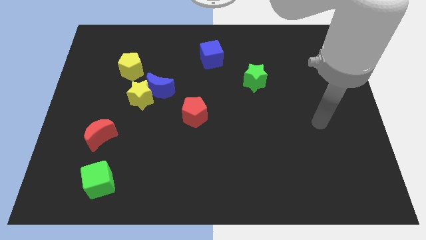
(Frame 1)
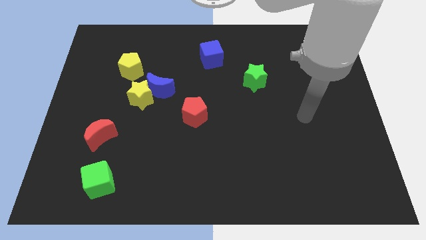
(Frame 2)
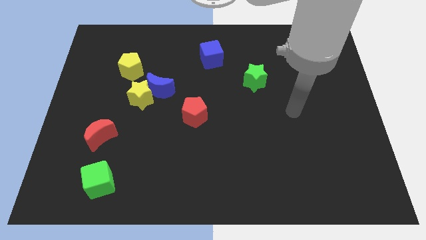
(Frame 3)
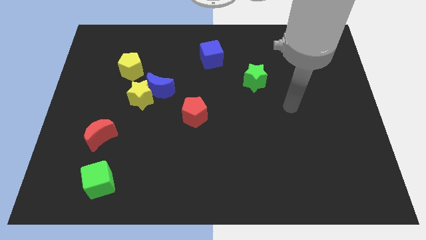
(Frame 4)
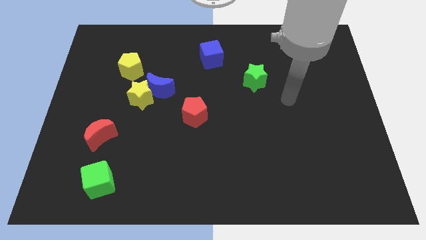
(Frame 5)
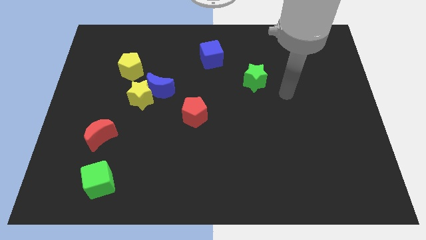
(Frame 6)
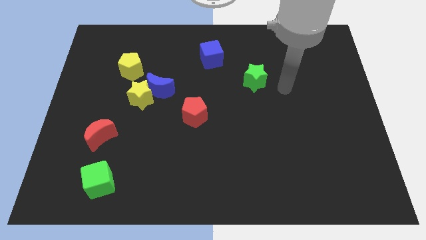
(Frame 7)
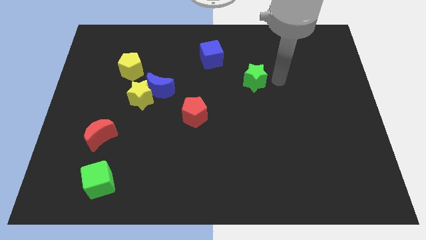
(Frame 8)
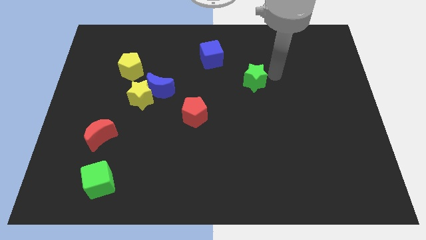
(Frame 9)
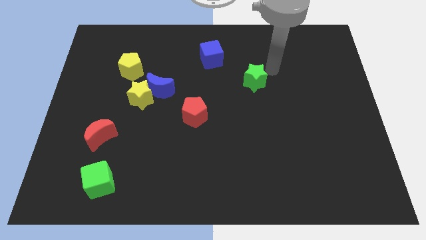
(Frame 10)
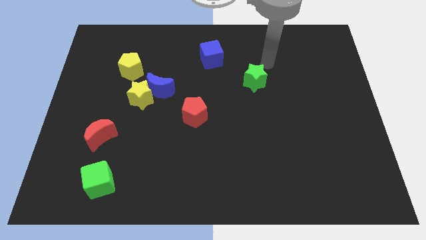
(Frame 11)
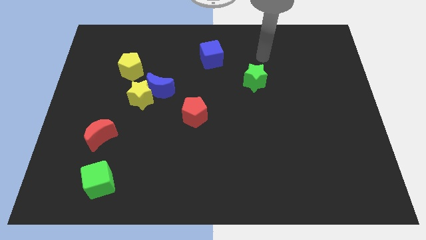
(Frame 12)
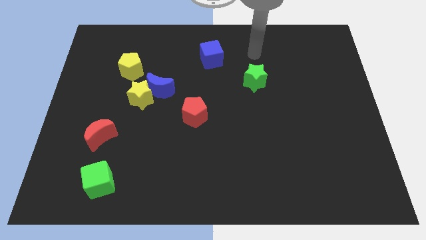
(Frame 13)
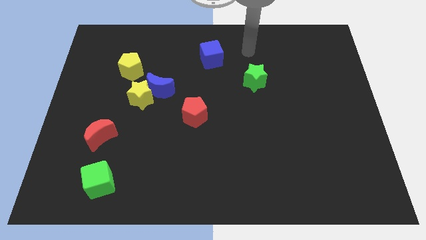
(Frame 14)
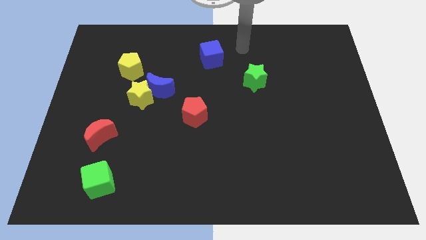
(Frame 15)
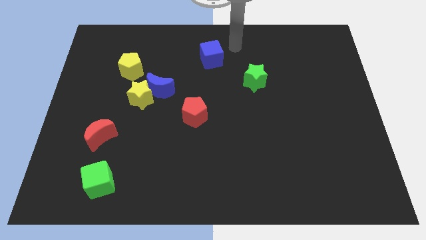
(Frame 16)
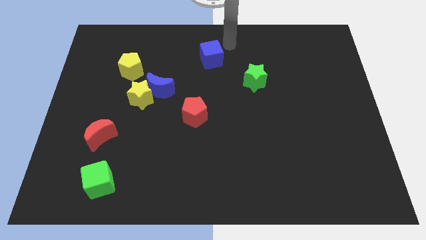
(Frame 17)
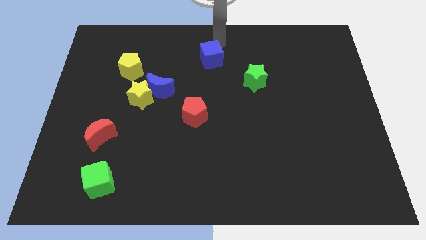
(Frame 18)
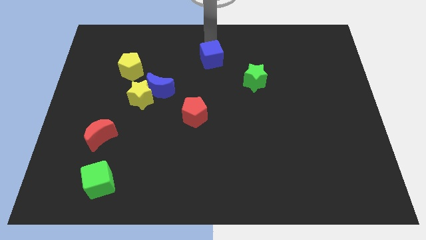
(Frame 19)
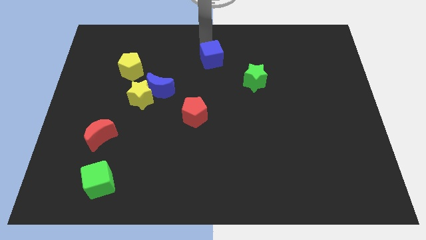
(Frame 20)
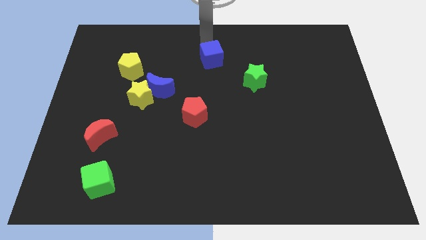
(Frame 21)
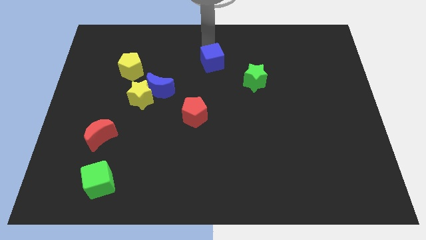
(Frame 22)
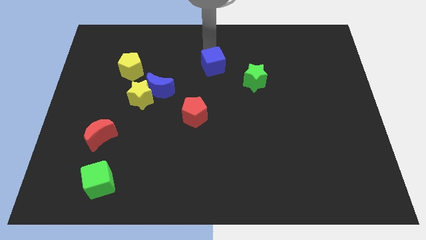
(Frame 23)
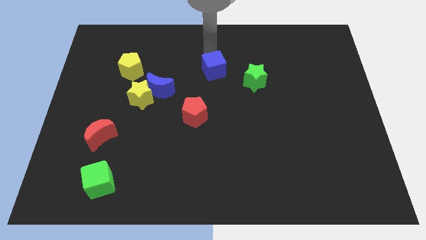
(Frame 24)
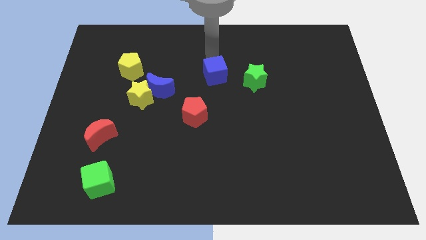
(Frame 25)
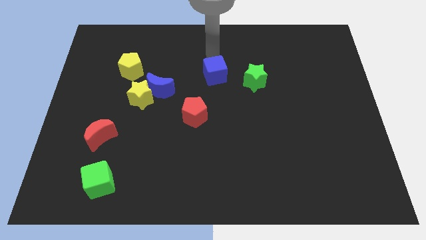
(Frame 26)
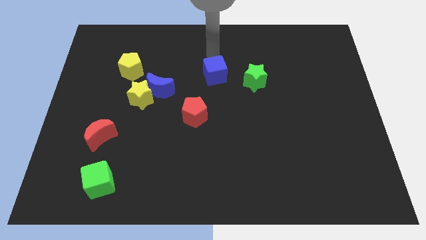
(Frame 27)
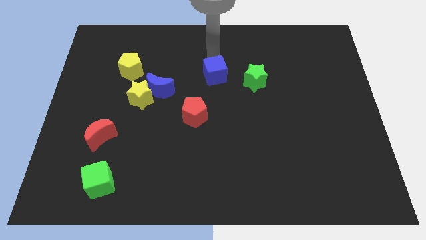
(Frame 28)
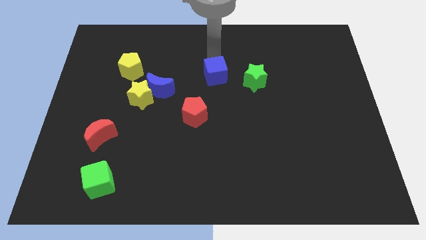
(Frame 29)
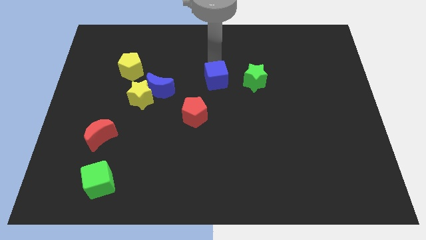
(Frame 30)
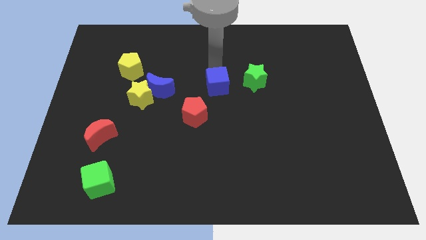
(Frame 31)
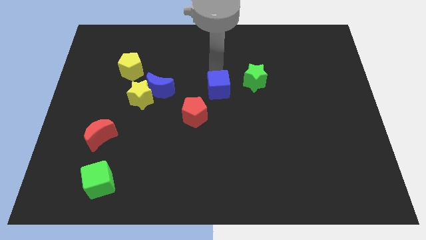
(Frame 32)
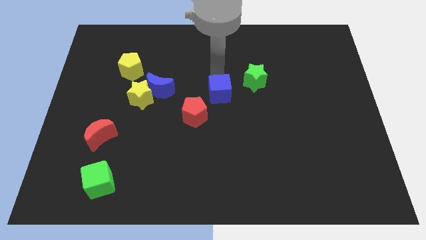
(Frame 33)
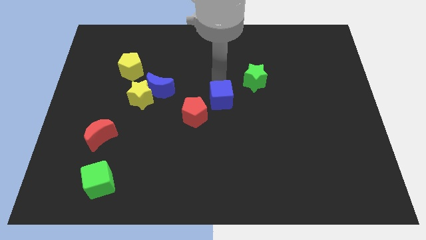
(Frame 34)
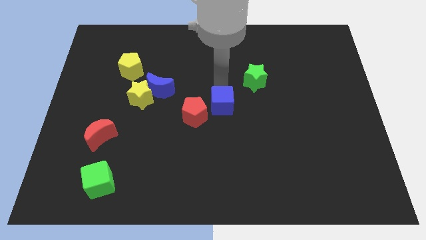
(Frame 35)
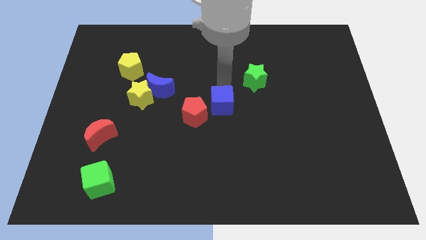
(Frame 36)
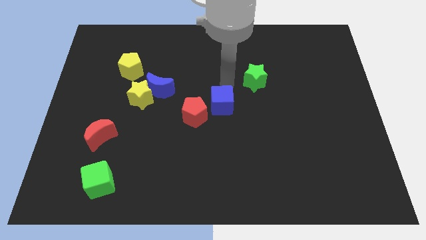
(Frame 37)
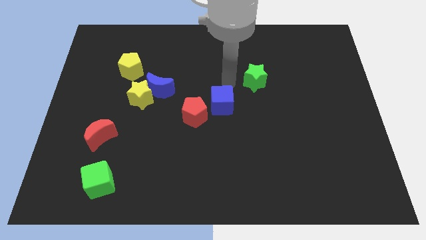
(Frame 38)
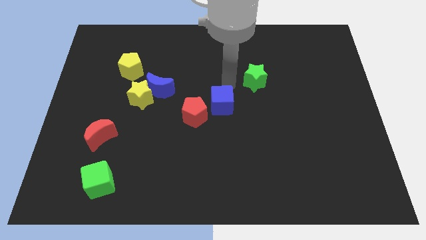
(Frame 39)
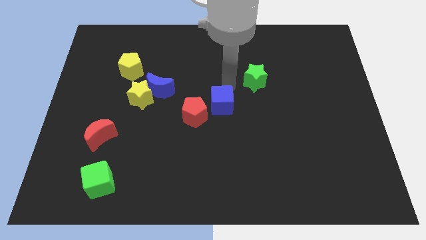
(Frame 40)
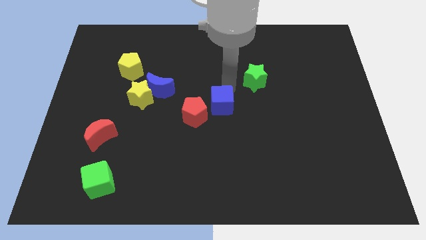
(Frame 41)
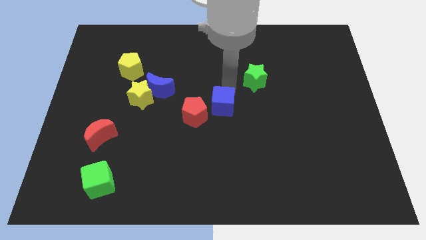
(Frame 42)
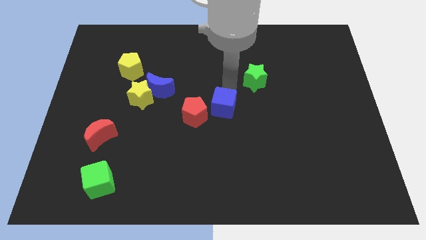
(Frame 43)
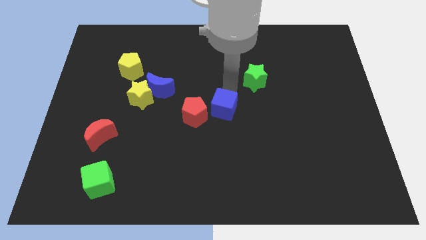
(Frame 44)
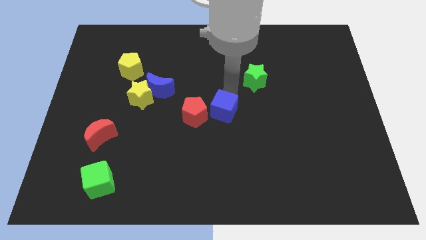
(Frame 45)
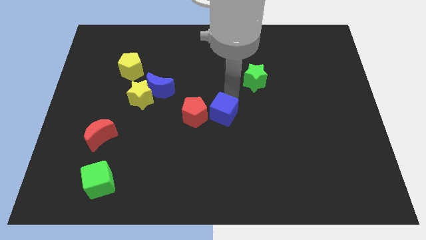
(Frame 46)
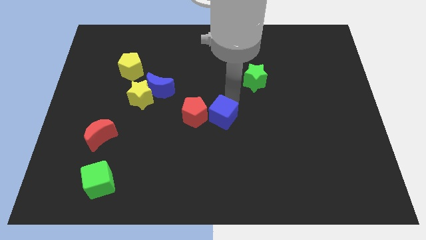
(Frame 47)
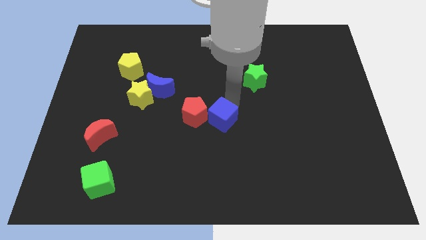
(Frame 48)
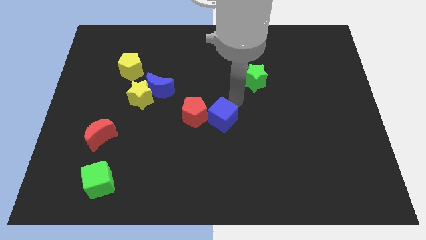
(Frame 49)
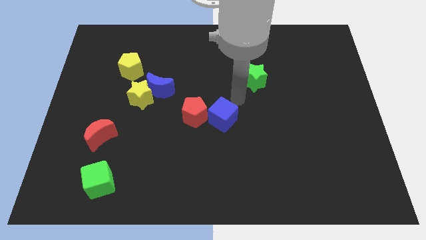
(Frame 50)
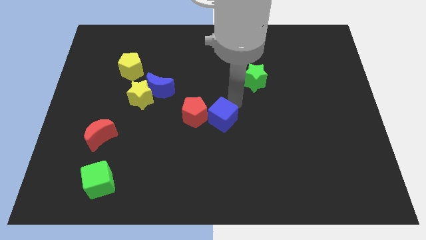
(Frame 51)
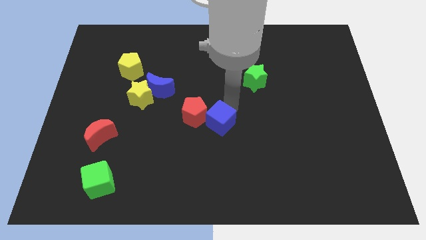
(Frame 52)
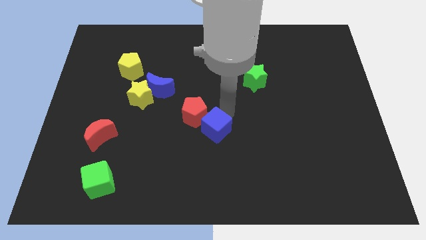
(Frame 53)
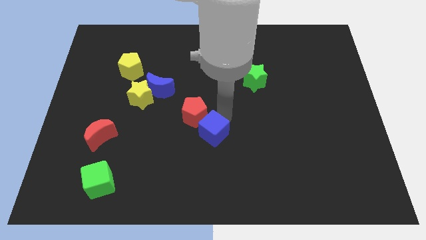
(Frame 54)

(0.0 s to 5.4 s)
push the blue cube below the red pentagon

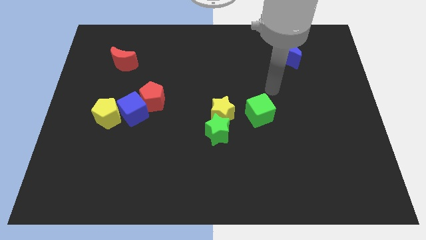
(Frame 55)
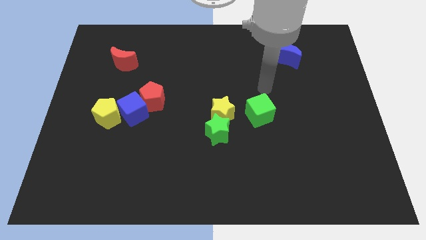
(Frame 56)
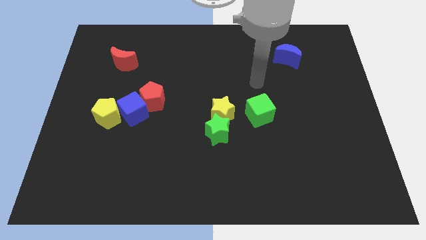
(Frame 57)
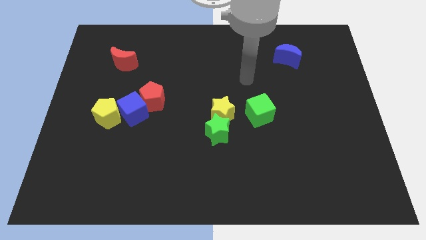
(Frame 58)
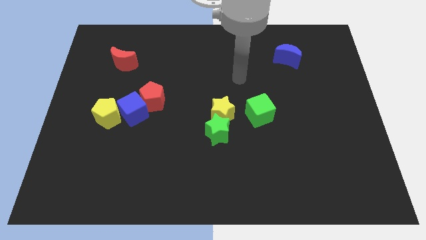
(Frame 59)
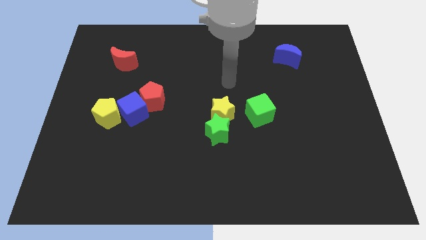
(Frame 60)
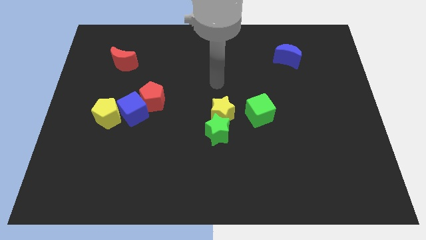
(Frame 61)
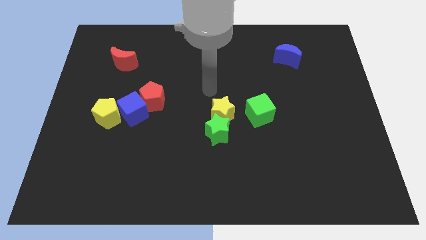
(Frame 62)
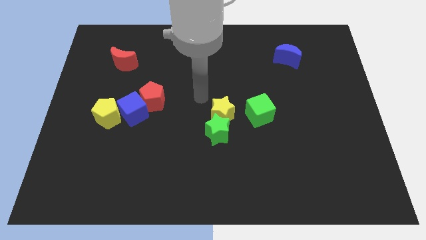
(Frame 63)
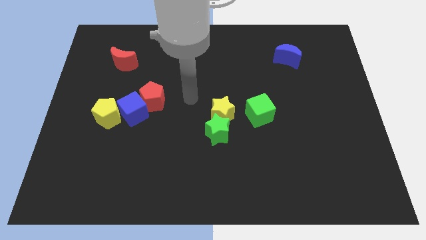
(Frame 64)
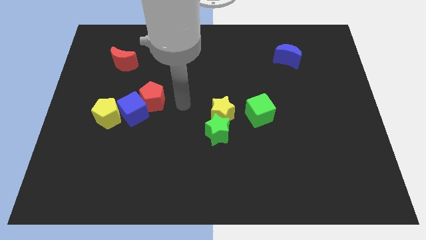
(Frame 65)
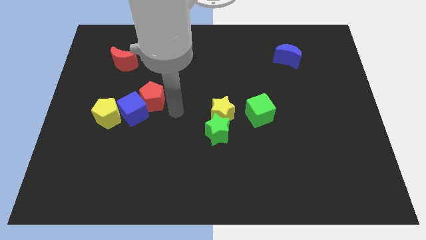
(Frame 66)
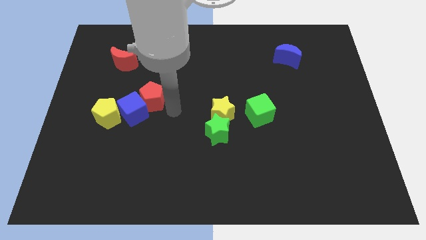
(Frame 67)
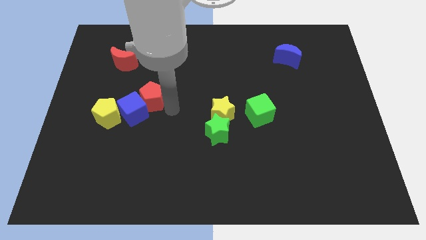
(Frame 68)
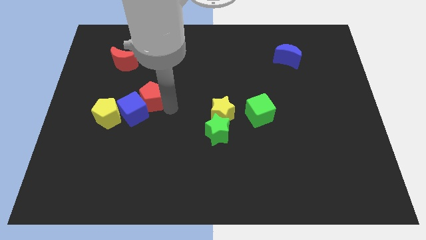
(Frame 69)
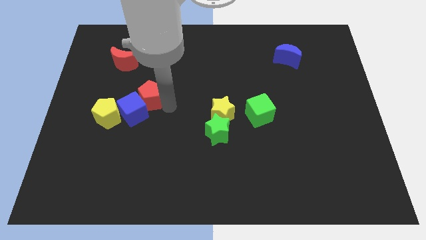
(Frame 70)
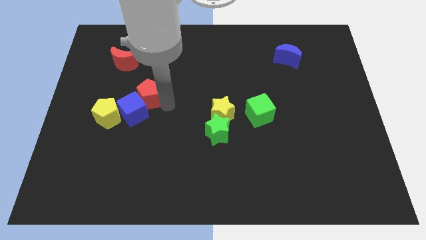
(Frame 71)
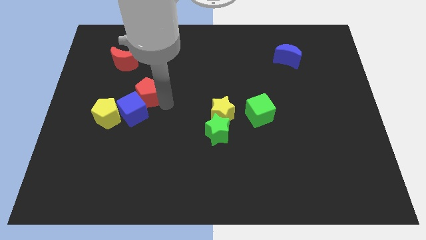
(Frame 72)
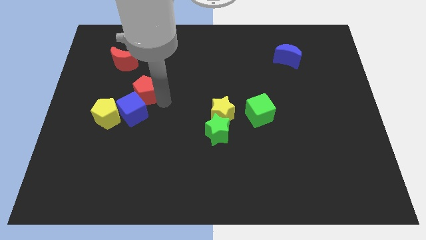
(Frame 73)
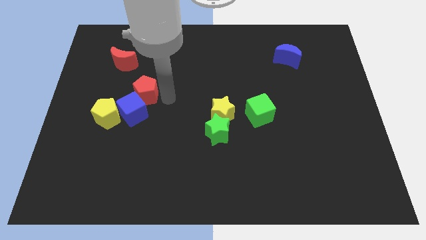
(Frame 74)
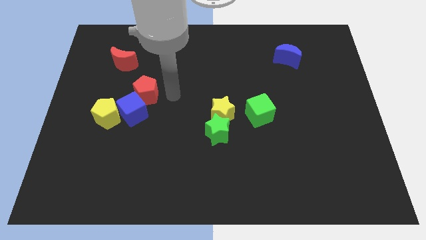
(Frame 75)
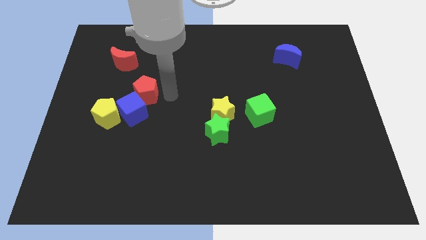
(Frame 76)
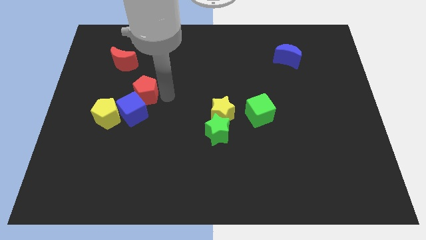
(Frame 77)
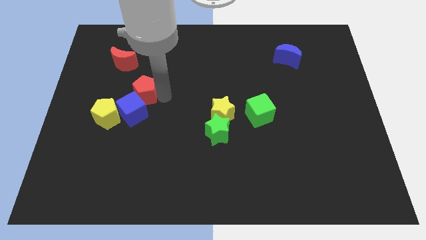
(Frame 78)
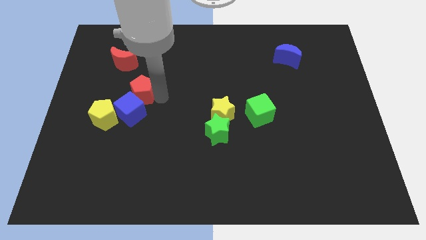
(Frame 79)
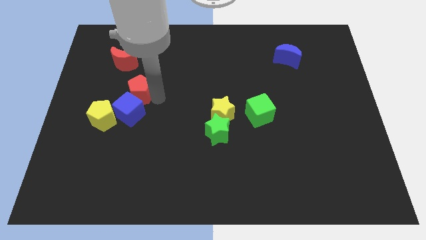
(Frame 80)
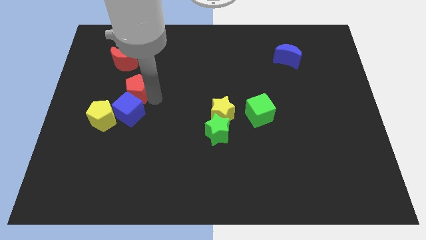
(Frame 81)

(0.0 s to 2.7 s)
put the red pentagon below the red moon
